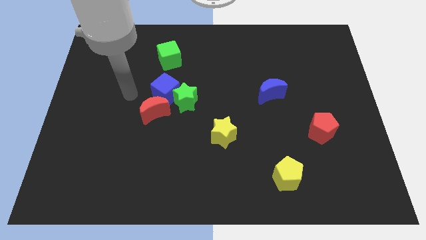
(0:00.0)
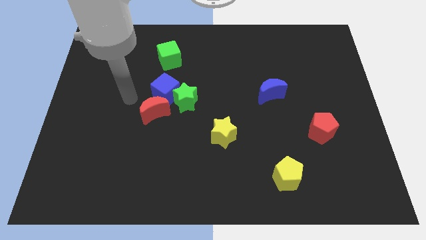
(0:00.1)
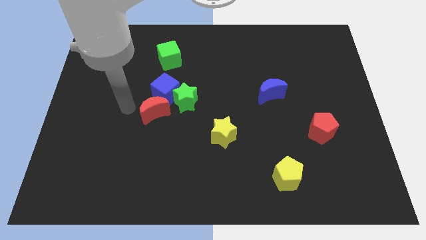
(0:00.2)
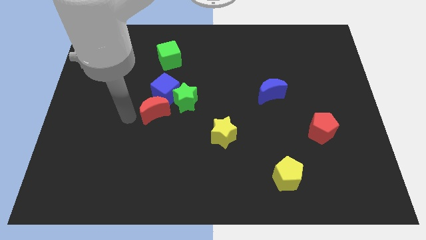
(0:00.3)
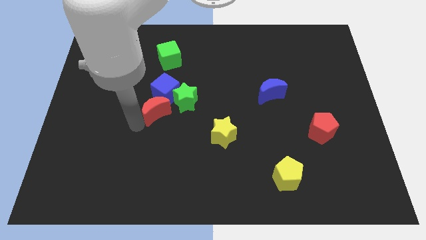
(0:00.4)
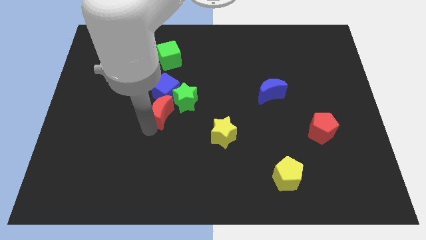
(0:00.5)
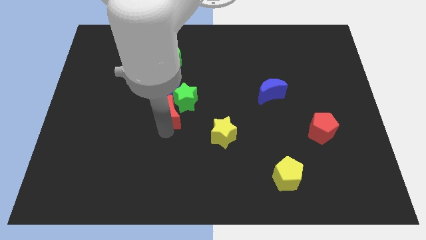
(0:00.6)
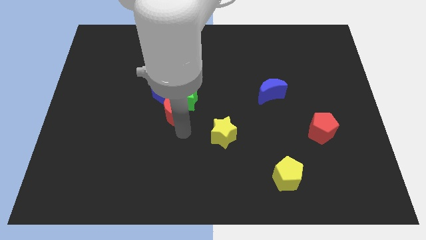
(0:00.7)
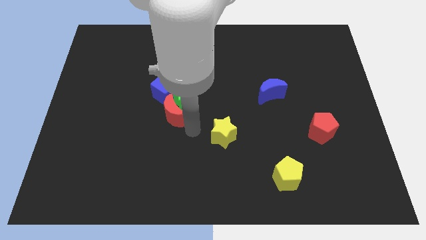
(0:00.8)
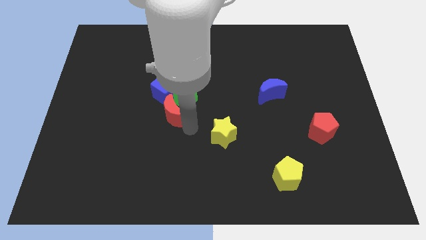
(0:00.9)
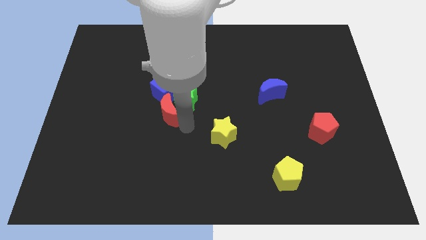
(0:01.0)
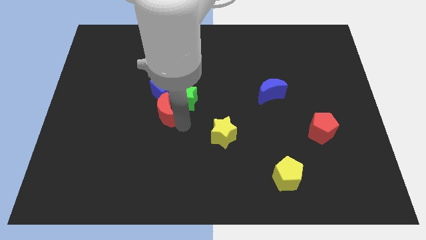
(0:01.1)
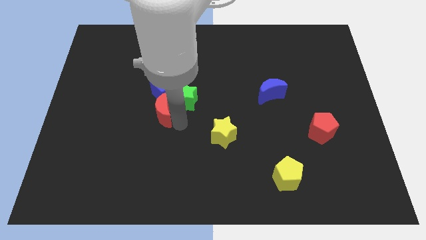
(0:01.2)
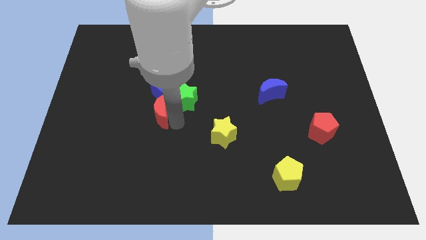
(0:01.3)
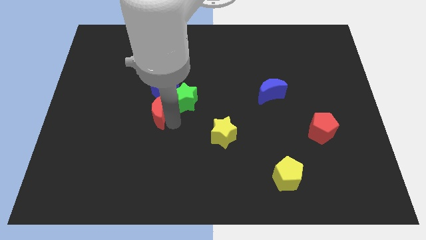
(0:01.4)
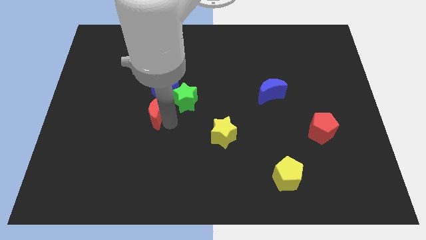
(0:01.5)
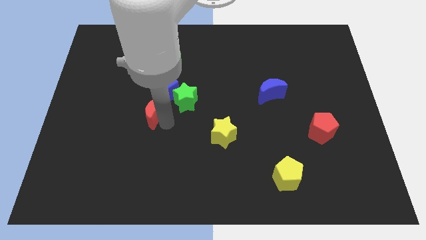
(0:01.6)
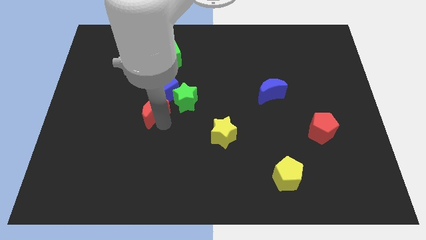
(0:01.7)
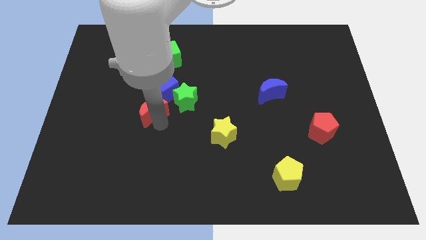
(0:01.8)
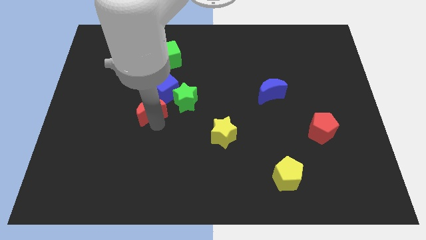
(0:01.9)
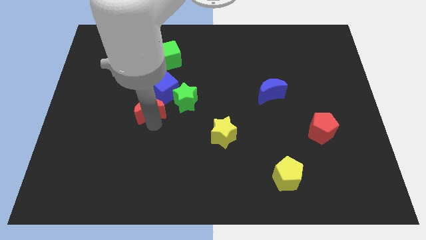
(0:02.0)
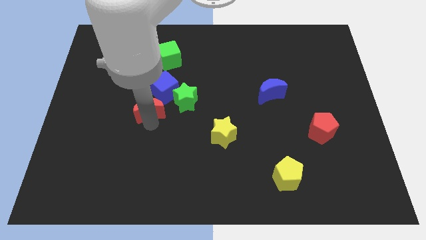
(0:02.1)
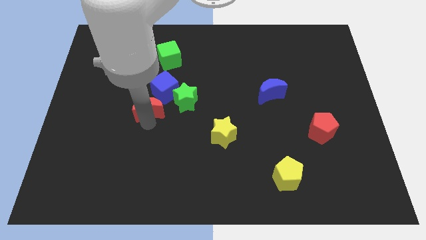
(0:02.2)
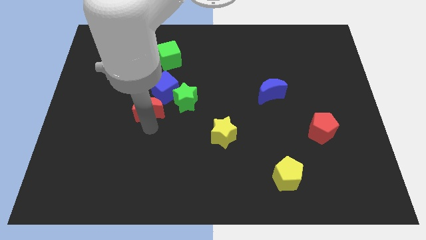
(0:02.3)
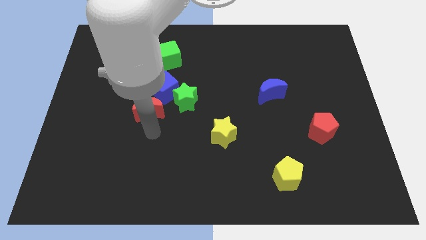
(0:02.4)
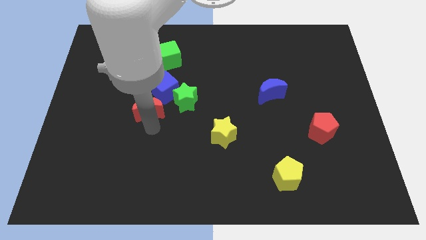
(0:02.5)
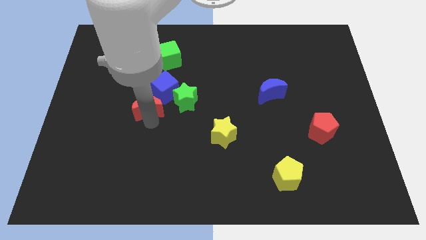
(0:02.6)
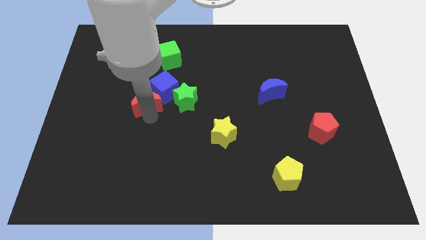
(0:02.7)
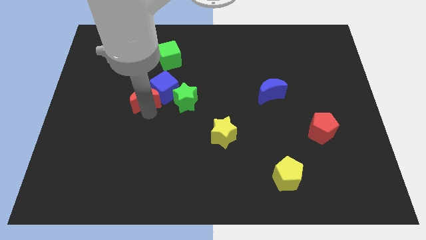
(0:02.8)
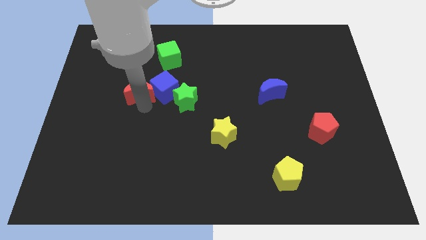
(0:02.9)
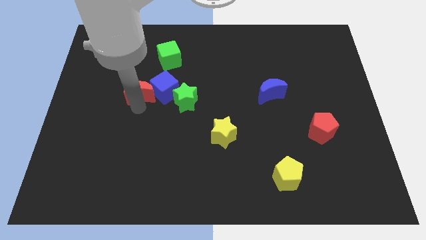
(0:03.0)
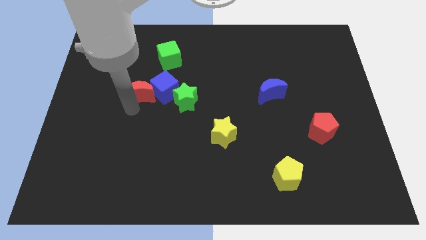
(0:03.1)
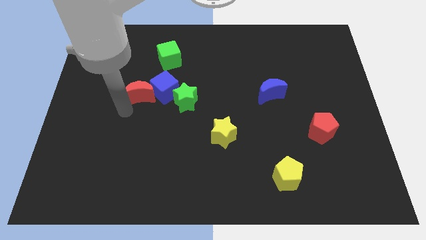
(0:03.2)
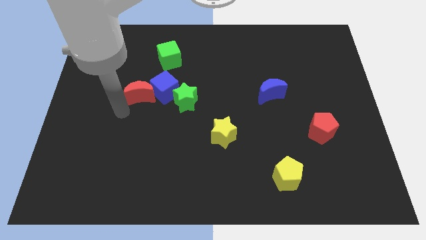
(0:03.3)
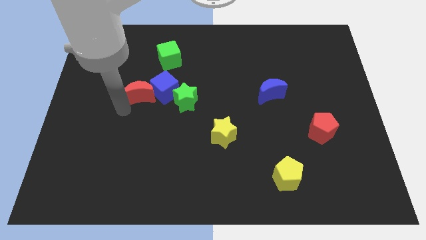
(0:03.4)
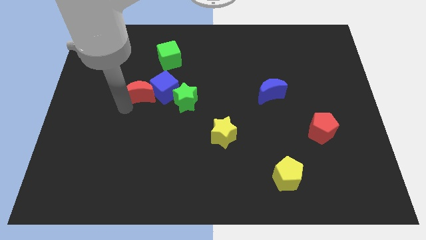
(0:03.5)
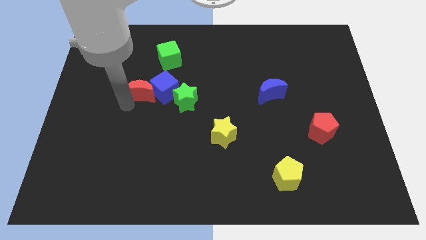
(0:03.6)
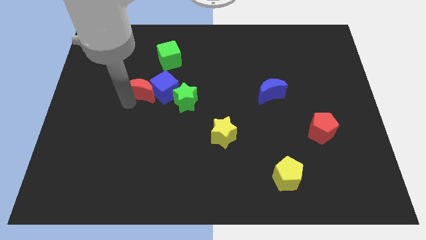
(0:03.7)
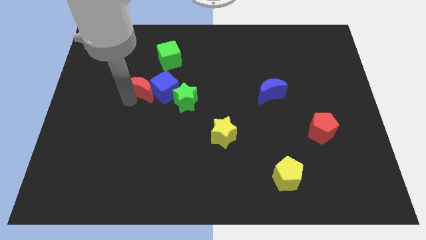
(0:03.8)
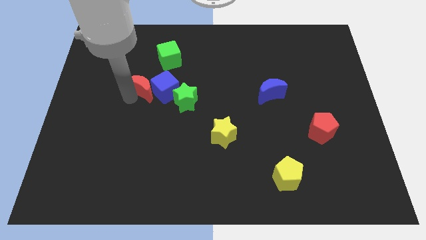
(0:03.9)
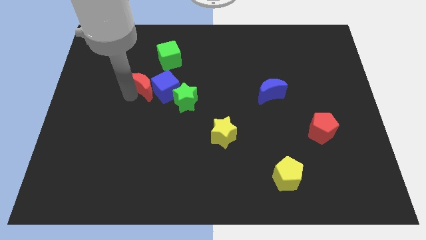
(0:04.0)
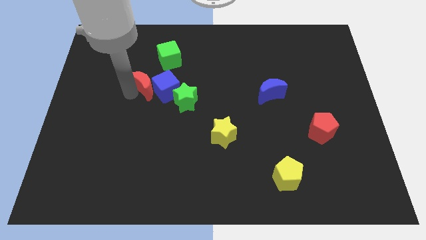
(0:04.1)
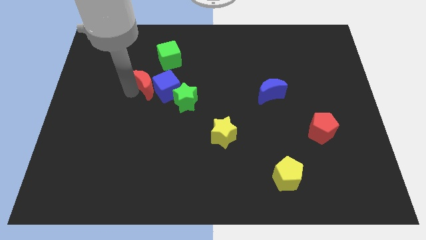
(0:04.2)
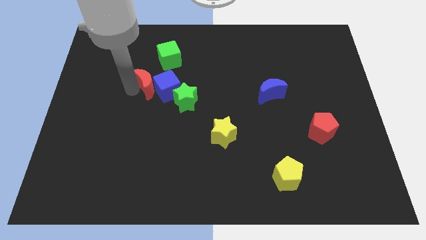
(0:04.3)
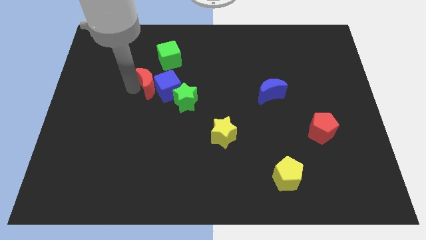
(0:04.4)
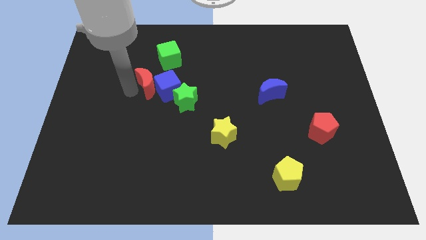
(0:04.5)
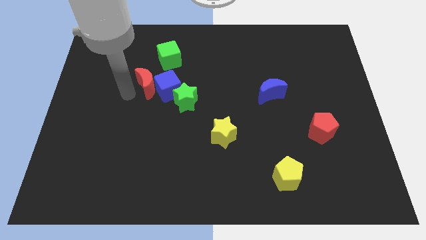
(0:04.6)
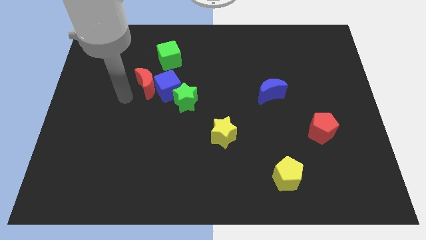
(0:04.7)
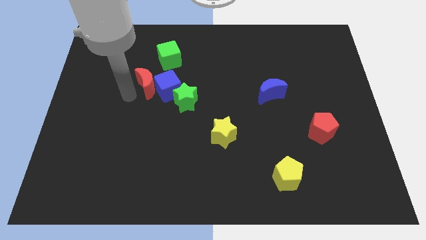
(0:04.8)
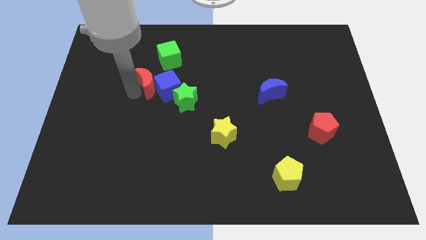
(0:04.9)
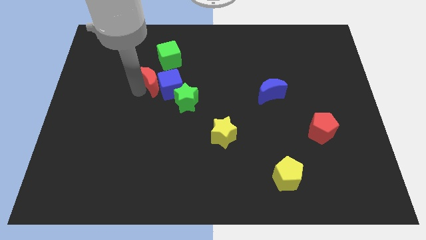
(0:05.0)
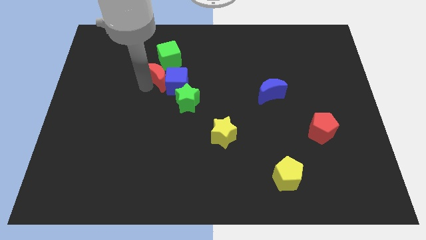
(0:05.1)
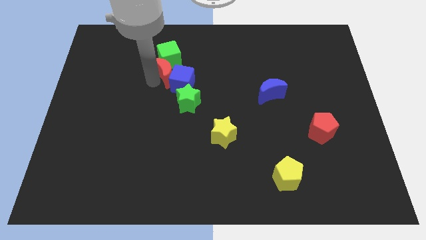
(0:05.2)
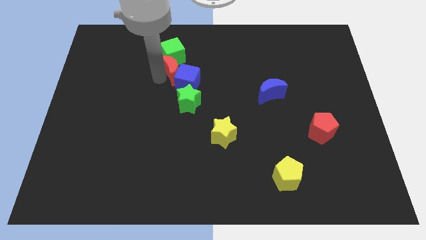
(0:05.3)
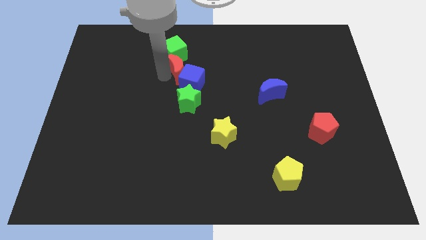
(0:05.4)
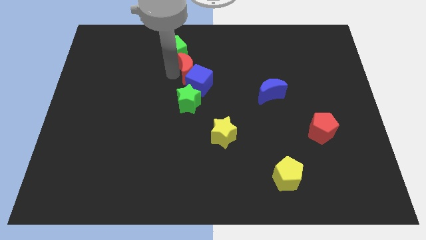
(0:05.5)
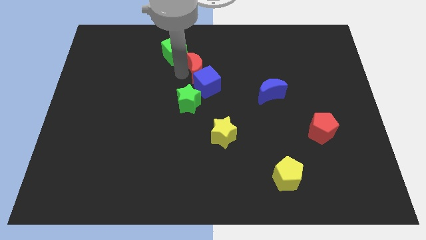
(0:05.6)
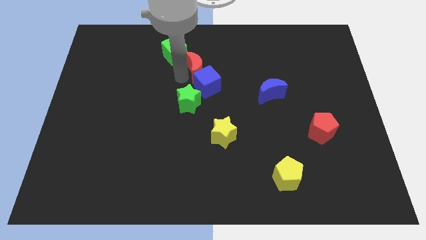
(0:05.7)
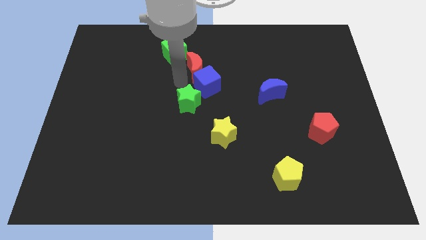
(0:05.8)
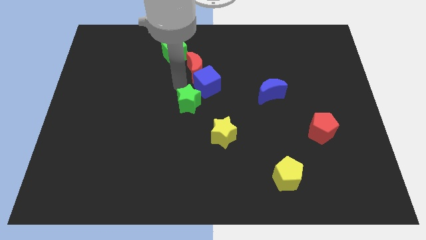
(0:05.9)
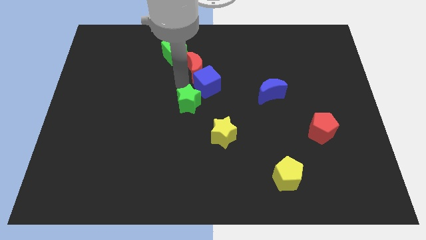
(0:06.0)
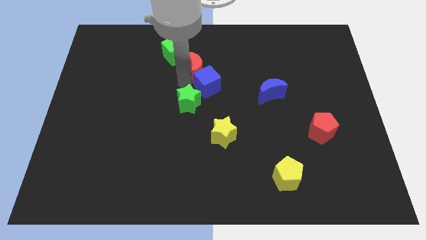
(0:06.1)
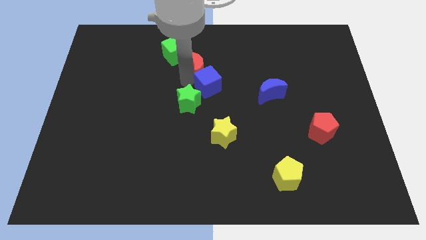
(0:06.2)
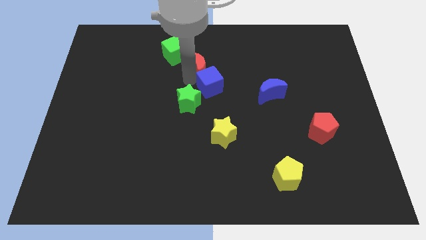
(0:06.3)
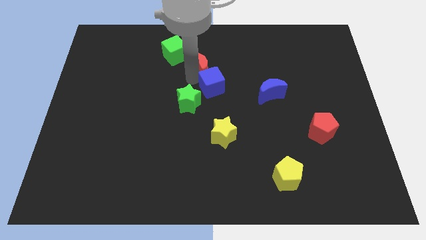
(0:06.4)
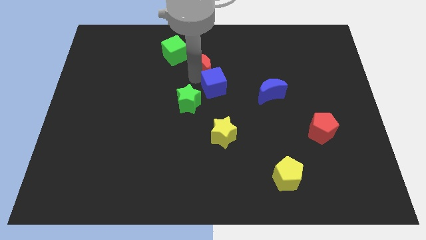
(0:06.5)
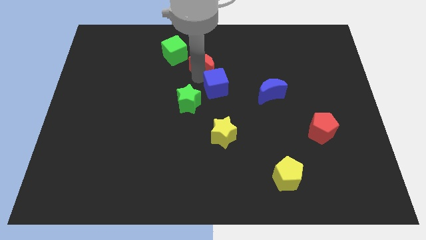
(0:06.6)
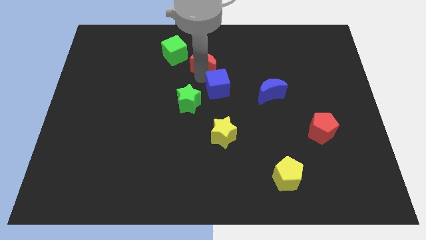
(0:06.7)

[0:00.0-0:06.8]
put the red moon to the right side of the green cube

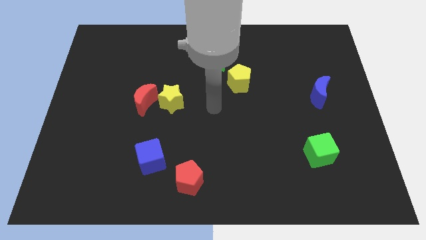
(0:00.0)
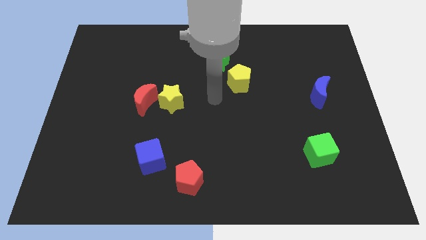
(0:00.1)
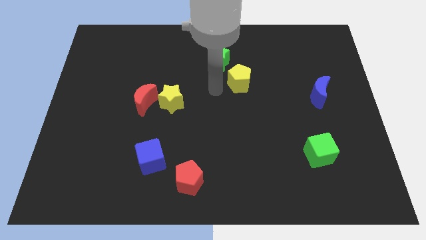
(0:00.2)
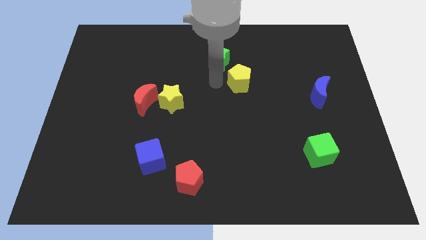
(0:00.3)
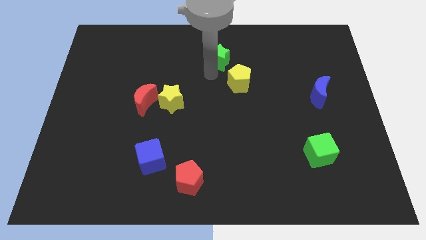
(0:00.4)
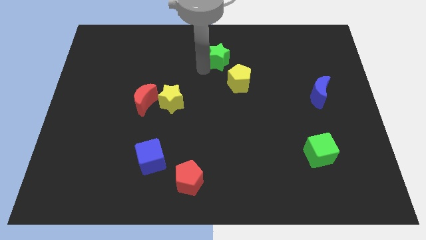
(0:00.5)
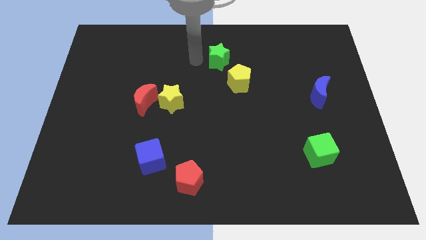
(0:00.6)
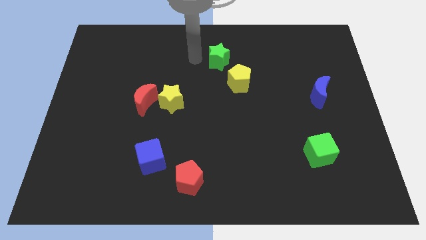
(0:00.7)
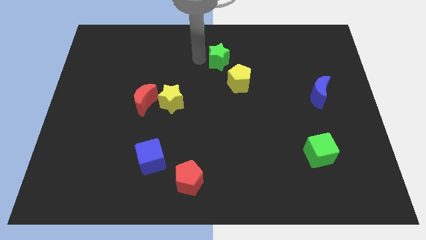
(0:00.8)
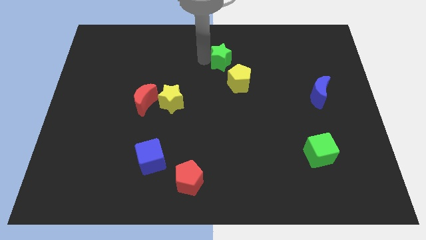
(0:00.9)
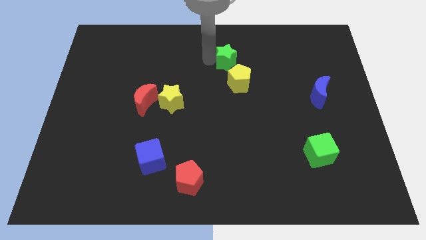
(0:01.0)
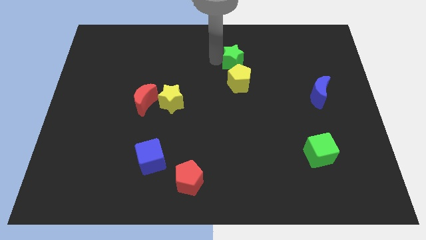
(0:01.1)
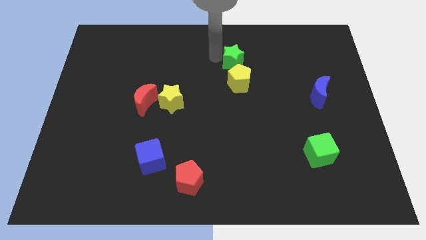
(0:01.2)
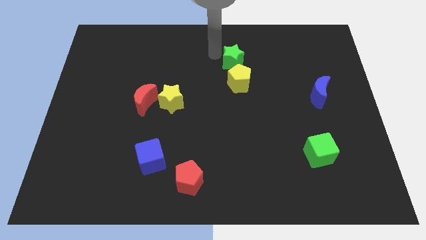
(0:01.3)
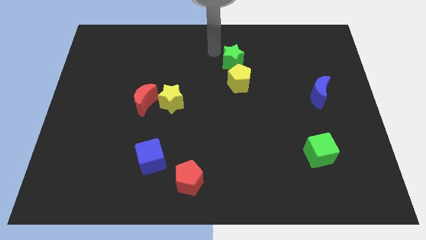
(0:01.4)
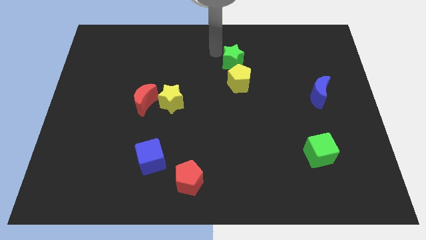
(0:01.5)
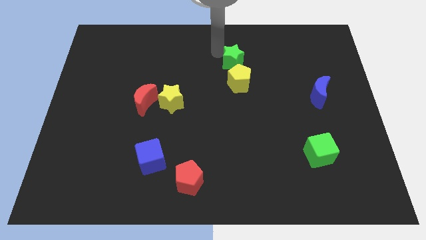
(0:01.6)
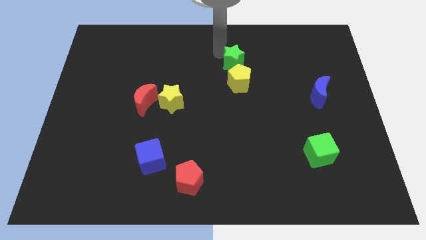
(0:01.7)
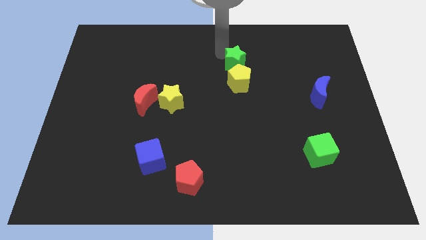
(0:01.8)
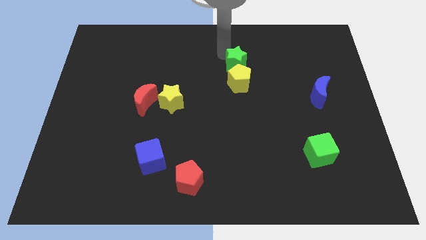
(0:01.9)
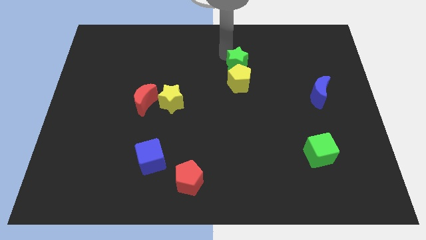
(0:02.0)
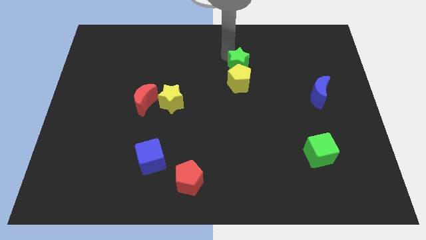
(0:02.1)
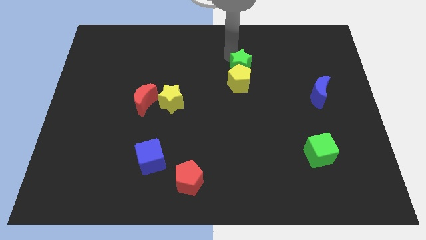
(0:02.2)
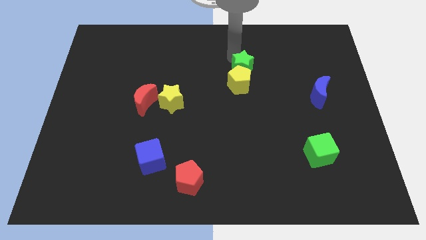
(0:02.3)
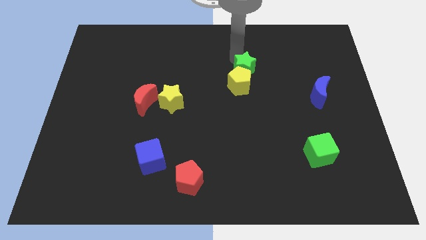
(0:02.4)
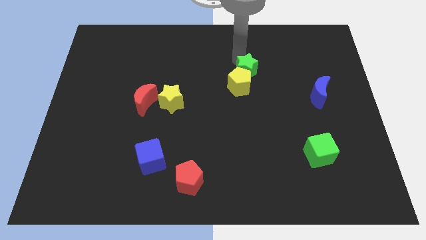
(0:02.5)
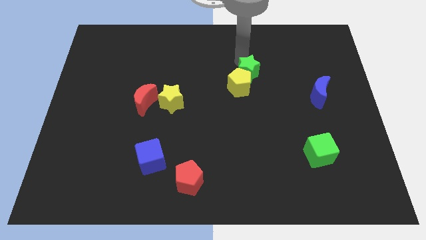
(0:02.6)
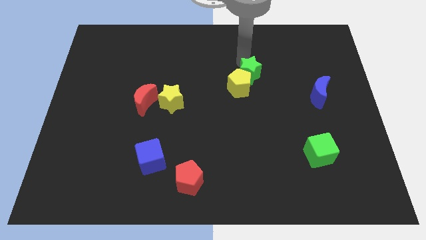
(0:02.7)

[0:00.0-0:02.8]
push the green star right of the yellow pentagon
